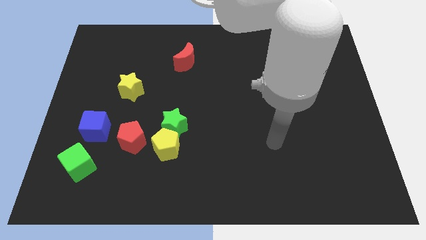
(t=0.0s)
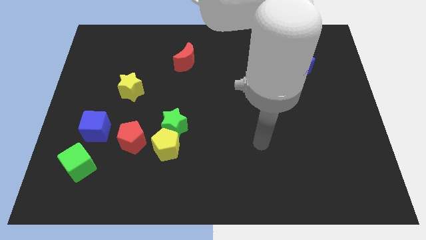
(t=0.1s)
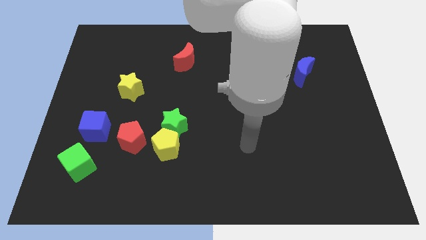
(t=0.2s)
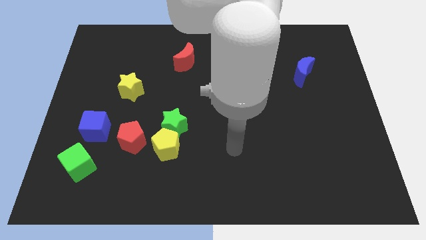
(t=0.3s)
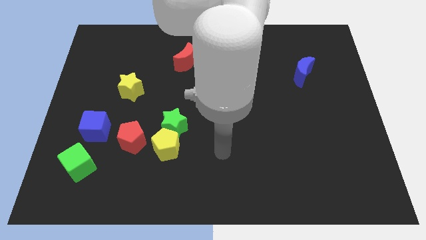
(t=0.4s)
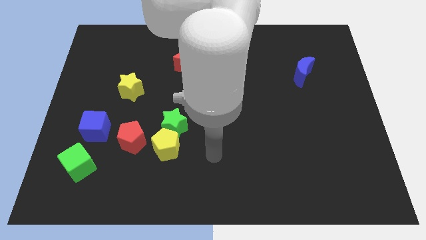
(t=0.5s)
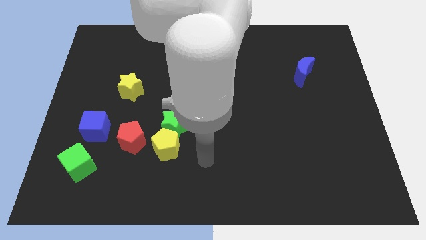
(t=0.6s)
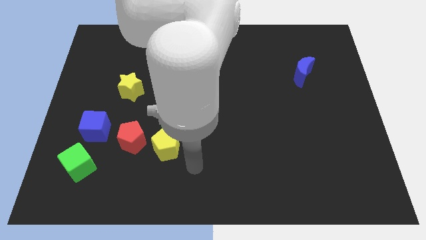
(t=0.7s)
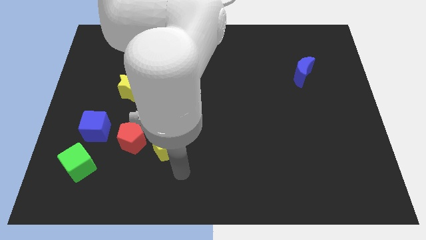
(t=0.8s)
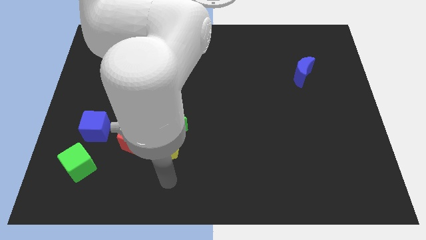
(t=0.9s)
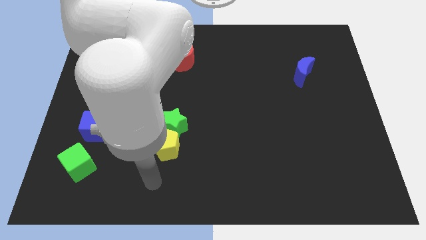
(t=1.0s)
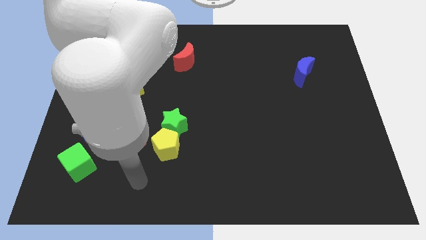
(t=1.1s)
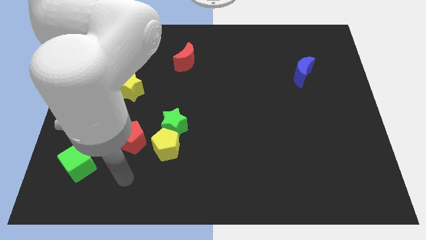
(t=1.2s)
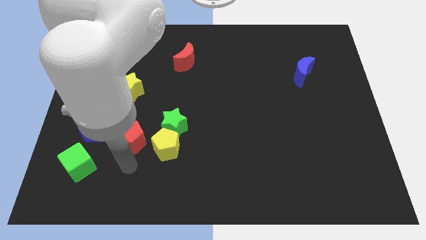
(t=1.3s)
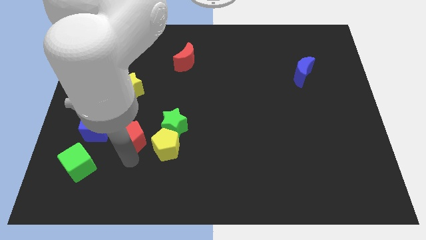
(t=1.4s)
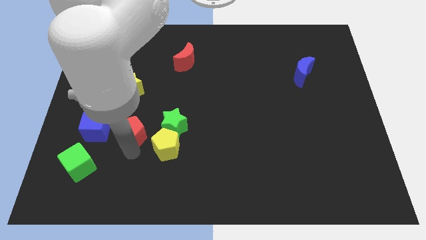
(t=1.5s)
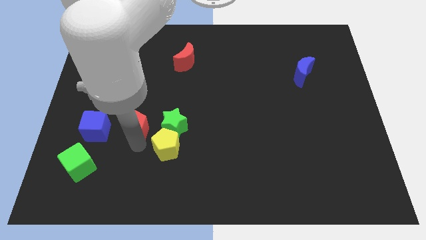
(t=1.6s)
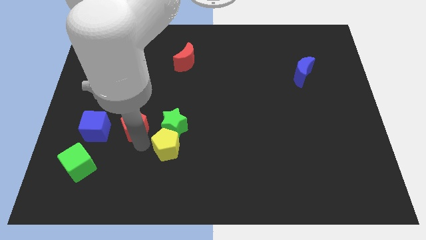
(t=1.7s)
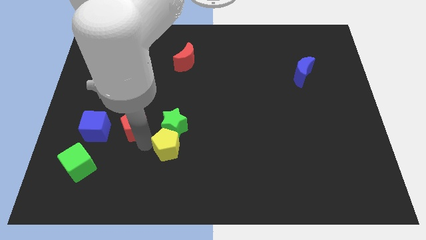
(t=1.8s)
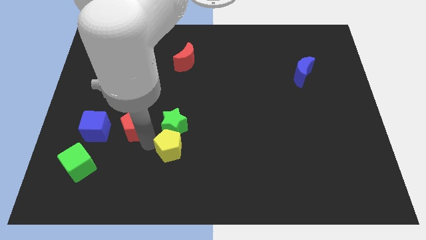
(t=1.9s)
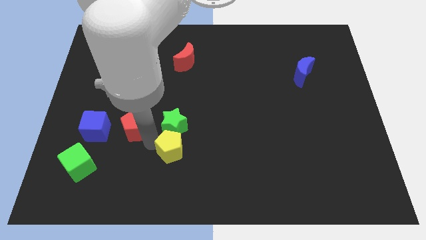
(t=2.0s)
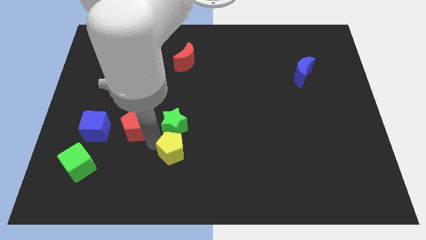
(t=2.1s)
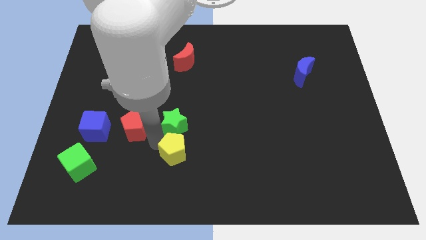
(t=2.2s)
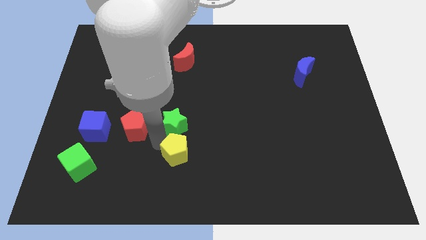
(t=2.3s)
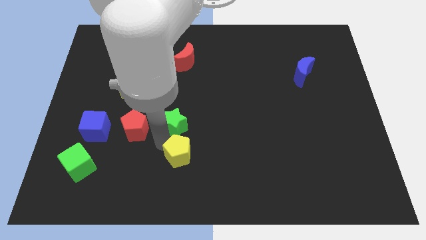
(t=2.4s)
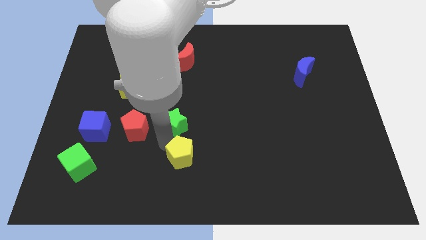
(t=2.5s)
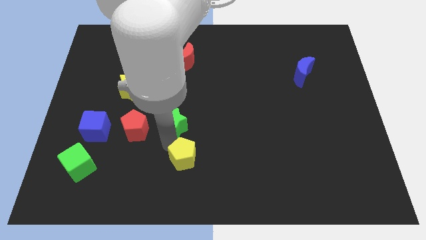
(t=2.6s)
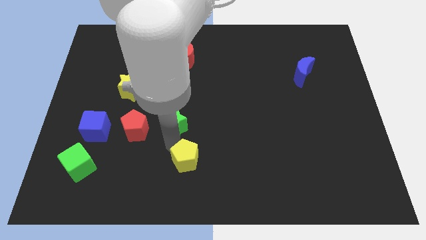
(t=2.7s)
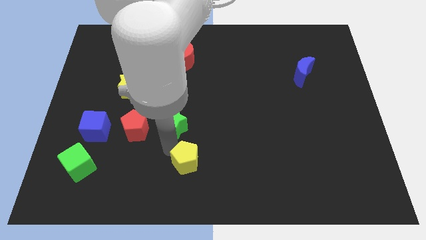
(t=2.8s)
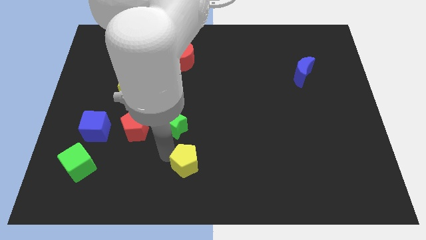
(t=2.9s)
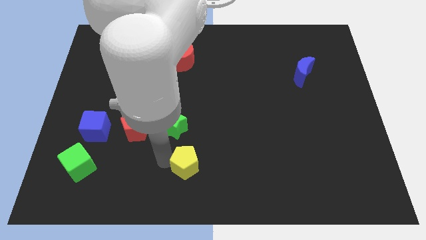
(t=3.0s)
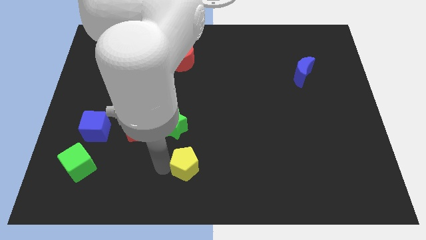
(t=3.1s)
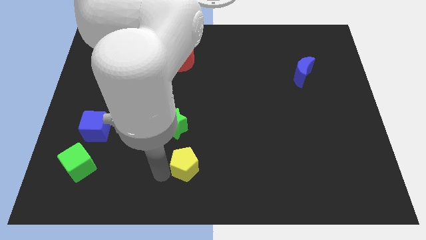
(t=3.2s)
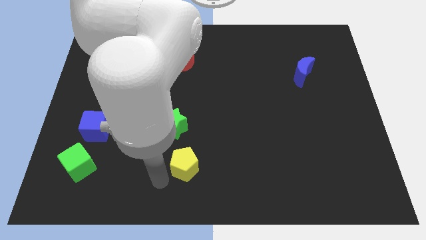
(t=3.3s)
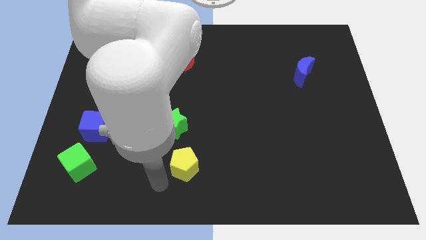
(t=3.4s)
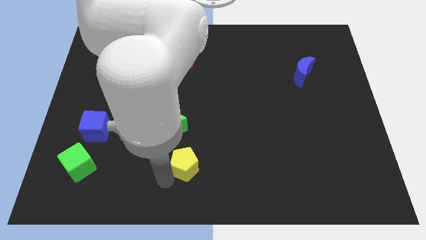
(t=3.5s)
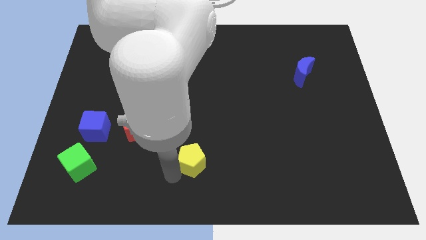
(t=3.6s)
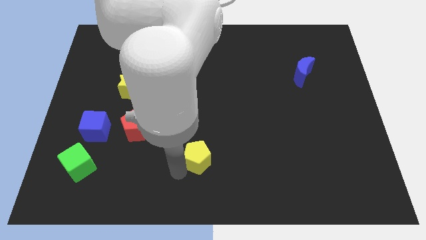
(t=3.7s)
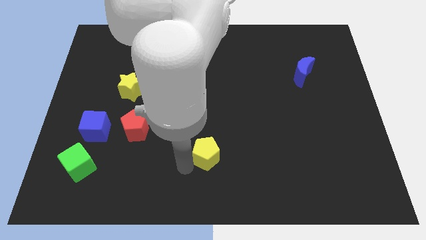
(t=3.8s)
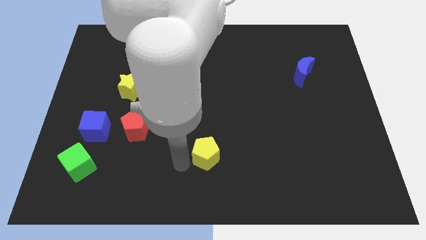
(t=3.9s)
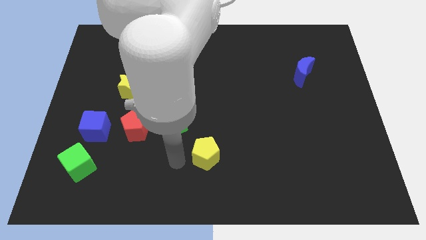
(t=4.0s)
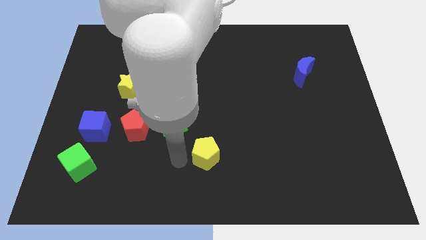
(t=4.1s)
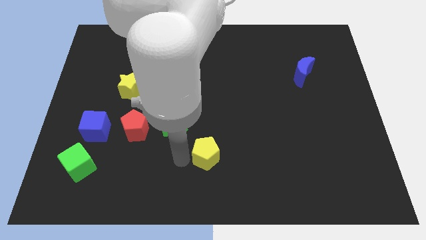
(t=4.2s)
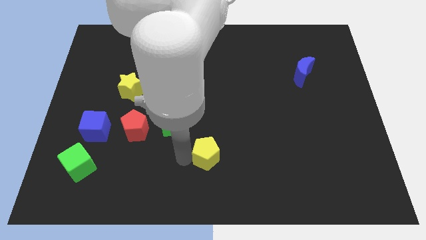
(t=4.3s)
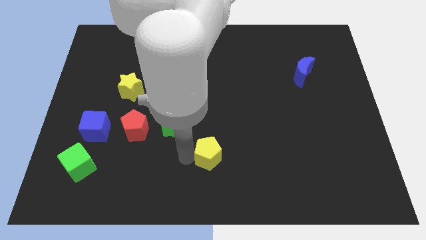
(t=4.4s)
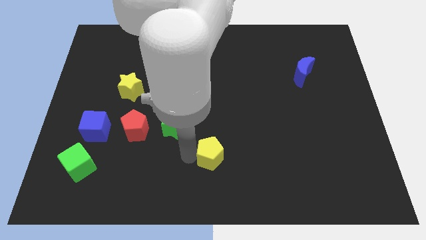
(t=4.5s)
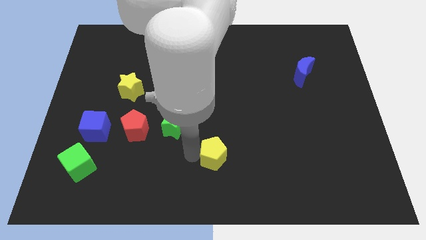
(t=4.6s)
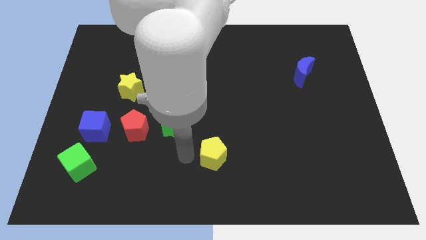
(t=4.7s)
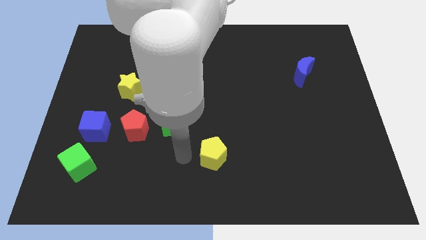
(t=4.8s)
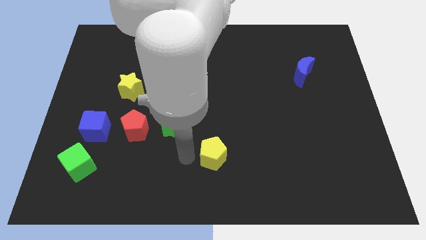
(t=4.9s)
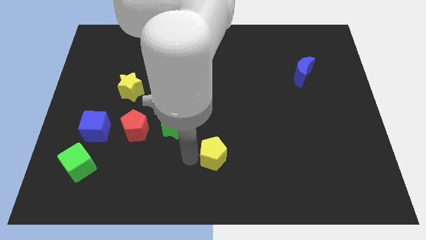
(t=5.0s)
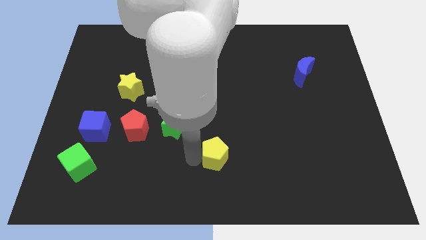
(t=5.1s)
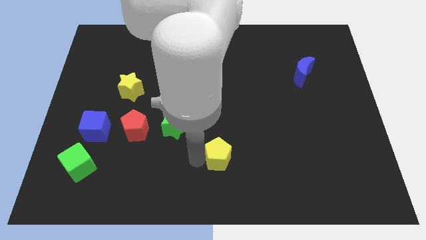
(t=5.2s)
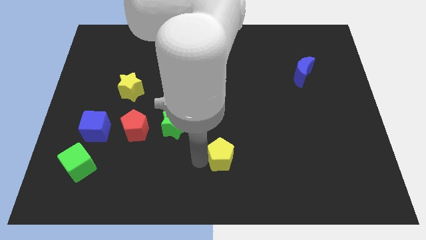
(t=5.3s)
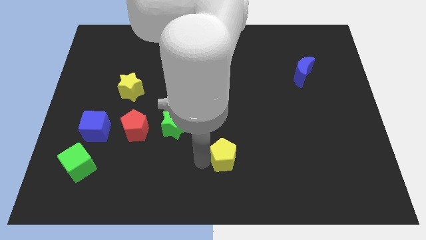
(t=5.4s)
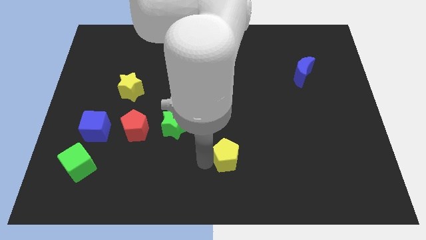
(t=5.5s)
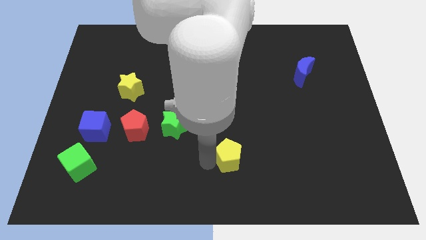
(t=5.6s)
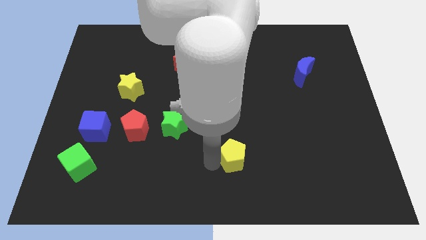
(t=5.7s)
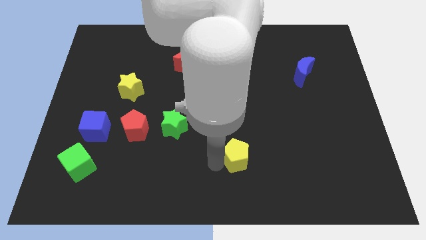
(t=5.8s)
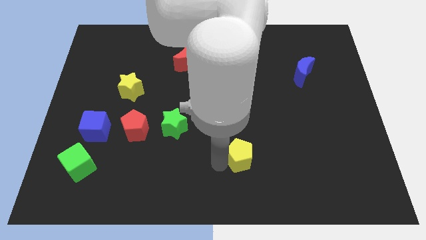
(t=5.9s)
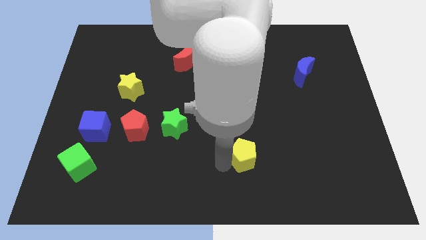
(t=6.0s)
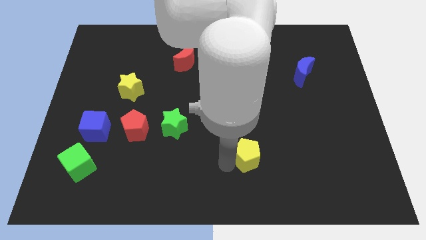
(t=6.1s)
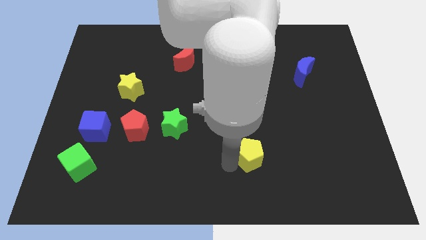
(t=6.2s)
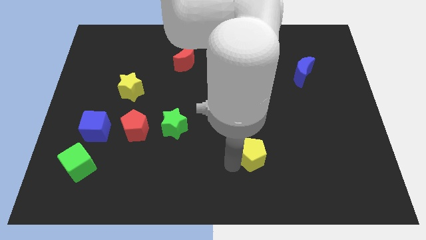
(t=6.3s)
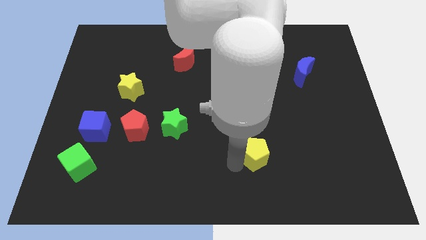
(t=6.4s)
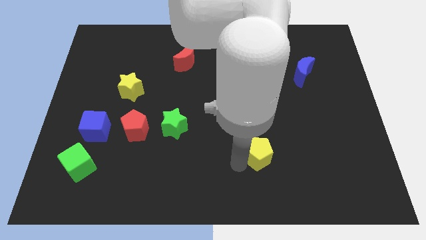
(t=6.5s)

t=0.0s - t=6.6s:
push the yellow pentagon to the right

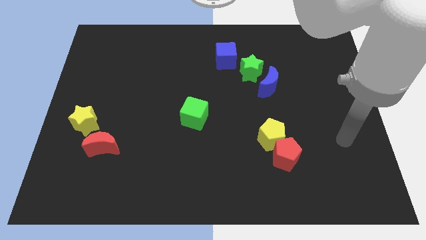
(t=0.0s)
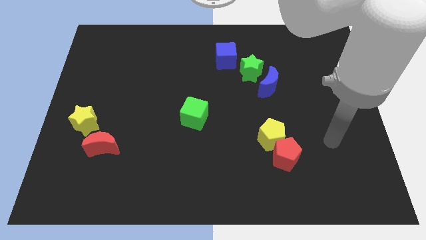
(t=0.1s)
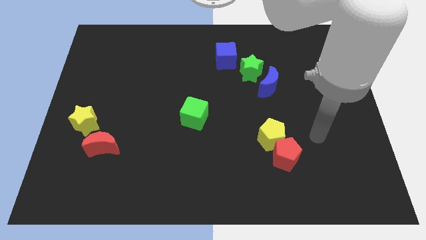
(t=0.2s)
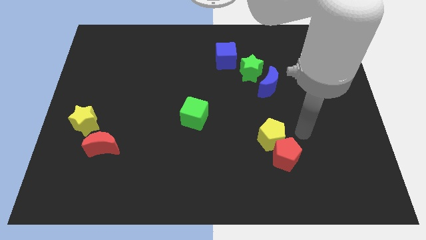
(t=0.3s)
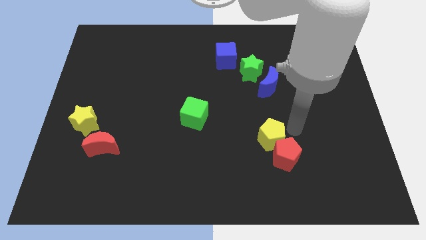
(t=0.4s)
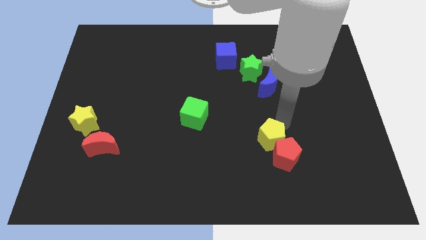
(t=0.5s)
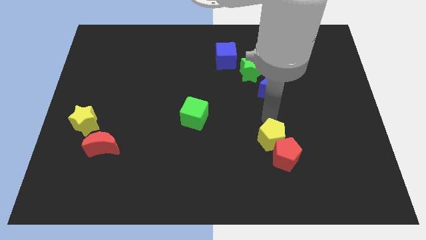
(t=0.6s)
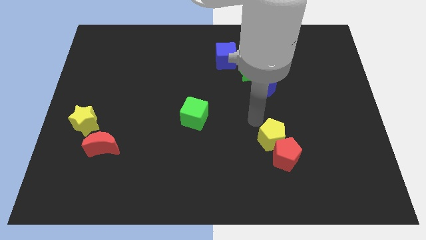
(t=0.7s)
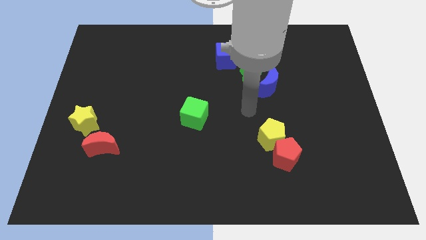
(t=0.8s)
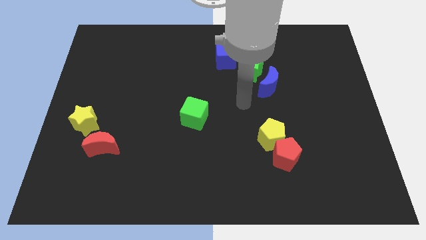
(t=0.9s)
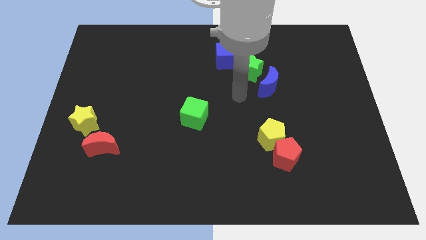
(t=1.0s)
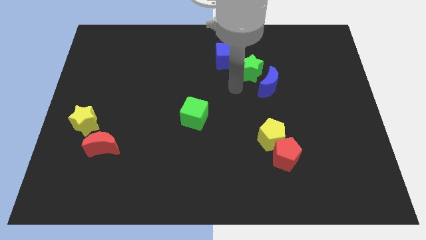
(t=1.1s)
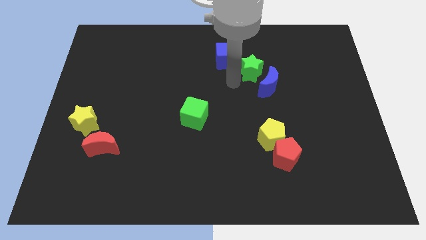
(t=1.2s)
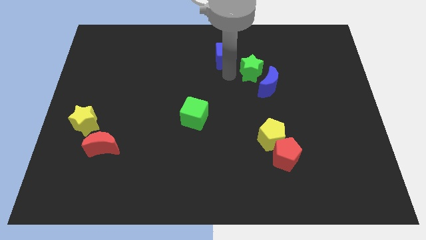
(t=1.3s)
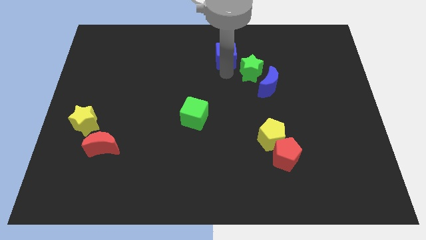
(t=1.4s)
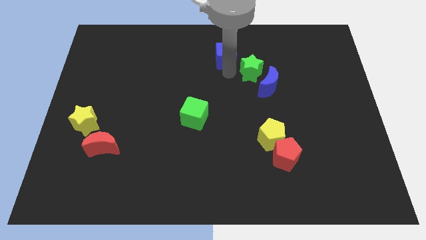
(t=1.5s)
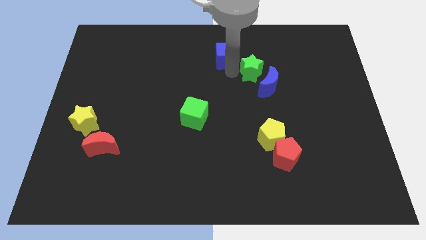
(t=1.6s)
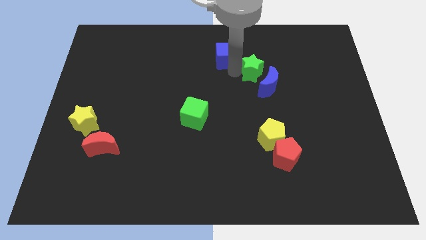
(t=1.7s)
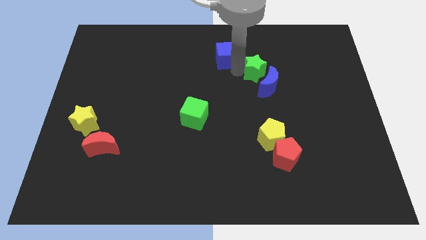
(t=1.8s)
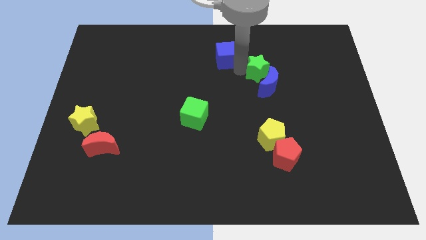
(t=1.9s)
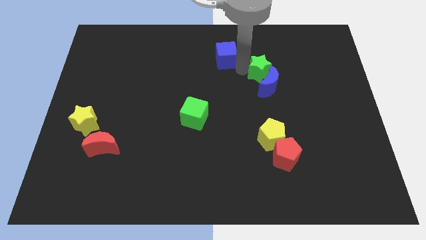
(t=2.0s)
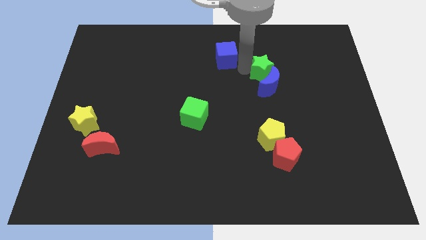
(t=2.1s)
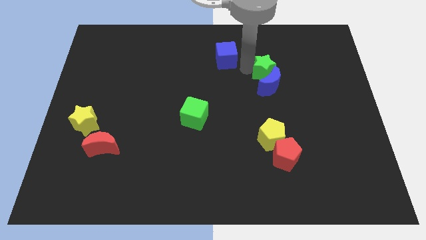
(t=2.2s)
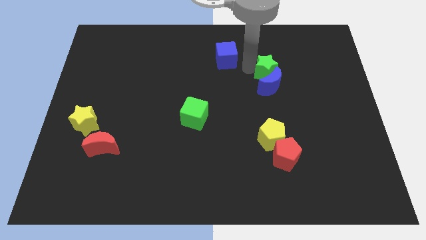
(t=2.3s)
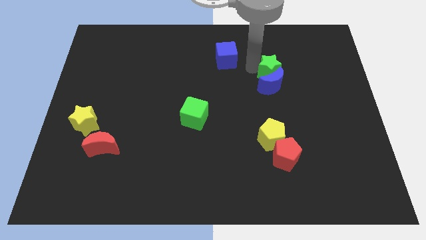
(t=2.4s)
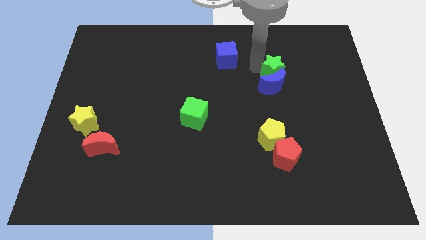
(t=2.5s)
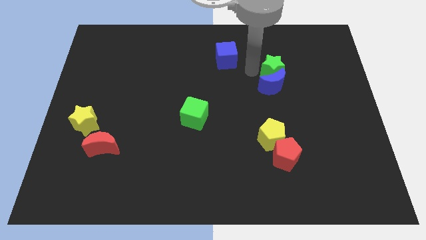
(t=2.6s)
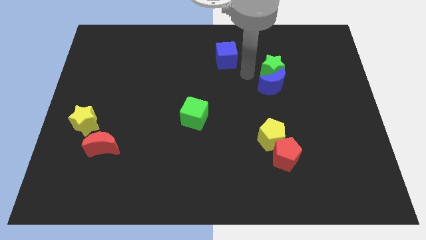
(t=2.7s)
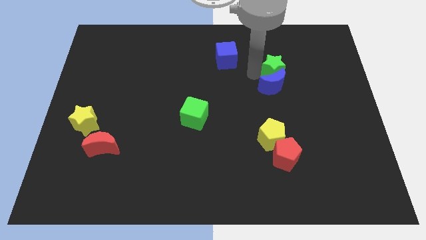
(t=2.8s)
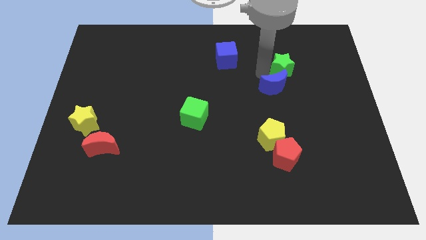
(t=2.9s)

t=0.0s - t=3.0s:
slide the green star a little bit to the right
